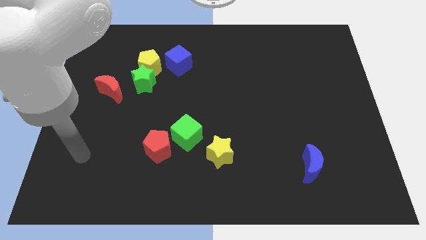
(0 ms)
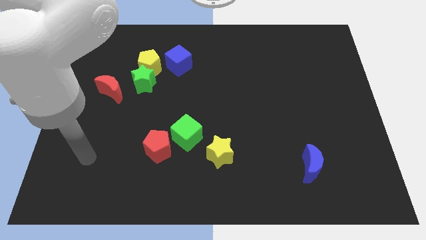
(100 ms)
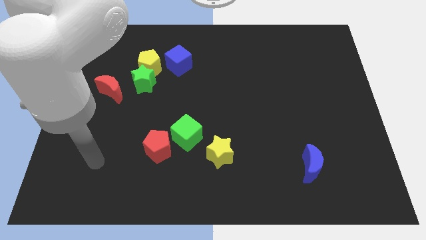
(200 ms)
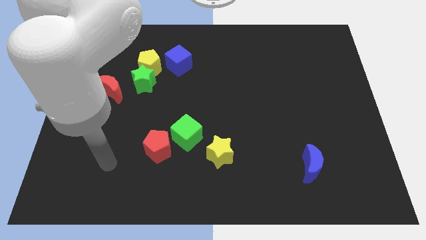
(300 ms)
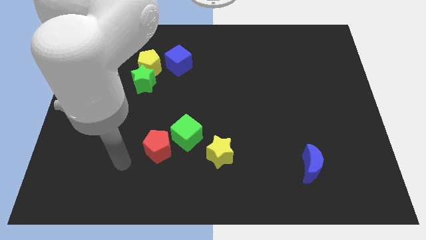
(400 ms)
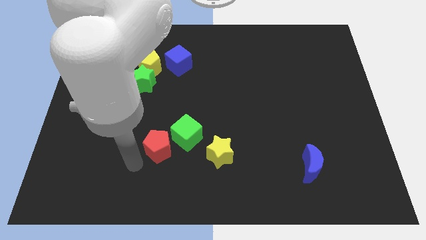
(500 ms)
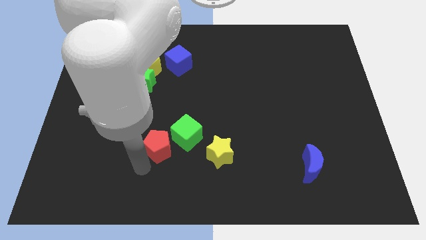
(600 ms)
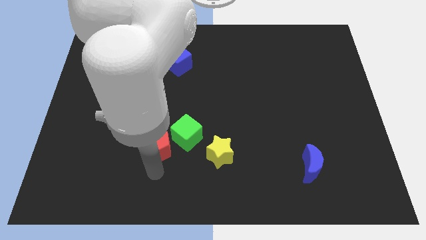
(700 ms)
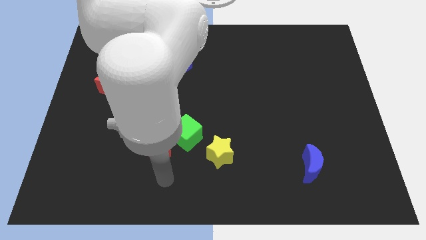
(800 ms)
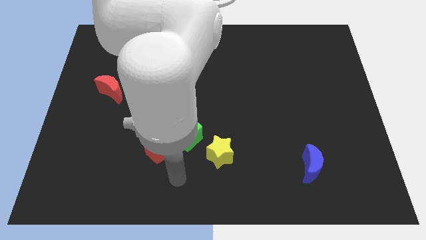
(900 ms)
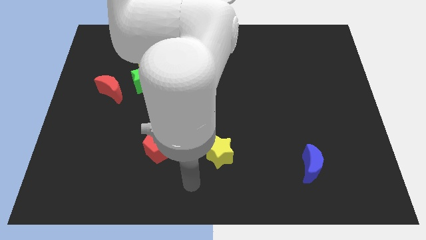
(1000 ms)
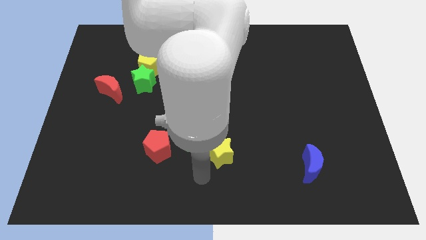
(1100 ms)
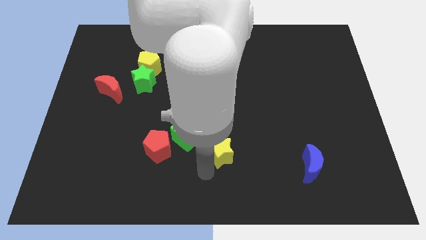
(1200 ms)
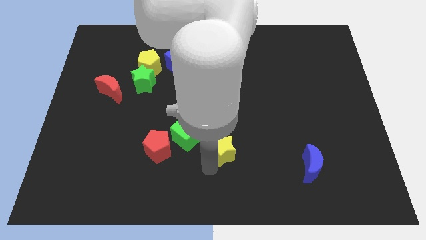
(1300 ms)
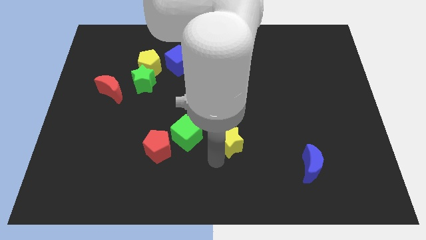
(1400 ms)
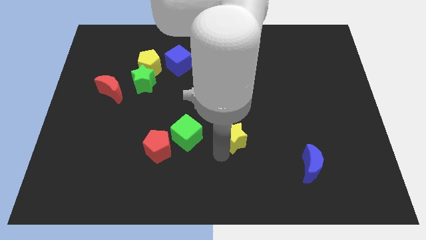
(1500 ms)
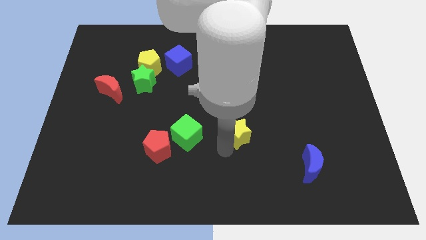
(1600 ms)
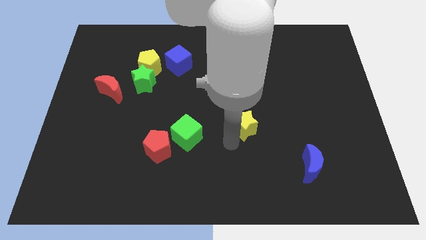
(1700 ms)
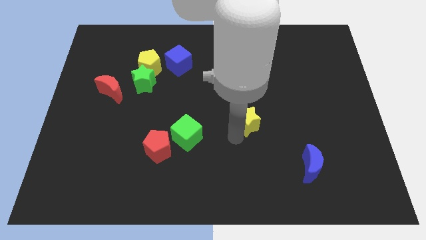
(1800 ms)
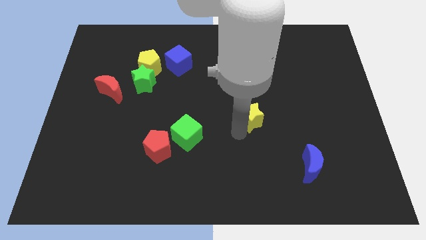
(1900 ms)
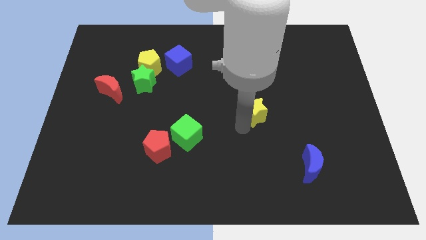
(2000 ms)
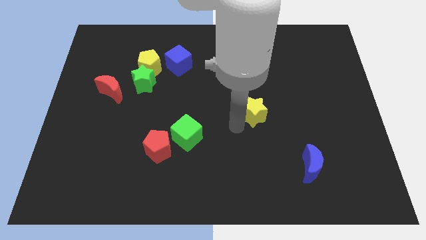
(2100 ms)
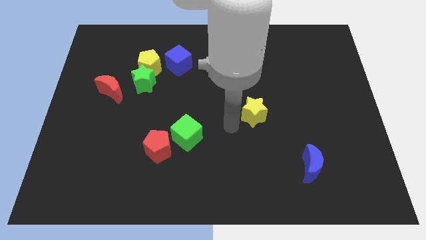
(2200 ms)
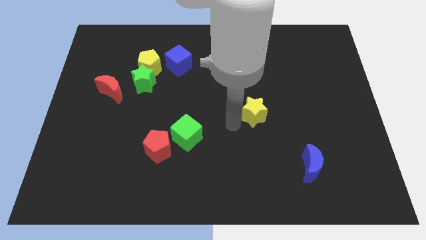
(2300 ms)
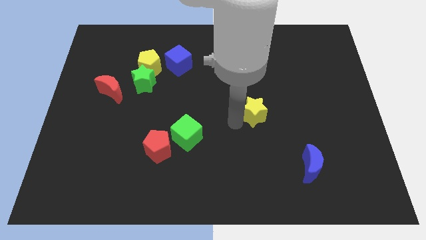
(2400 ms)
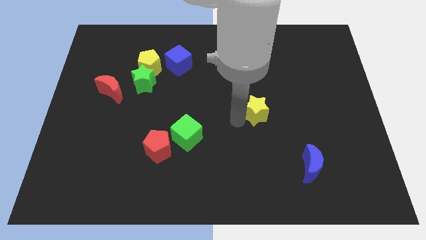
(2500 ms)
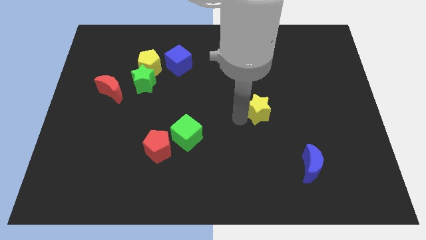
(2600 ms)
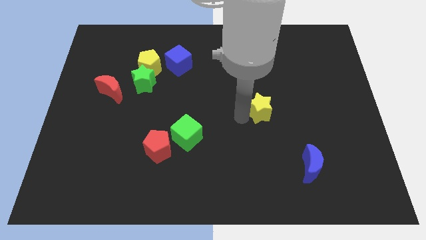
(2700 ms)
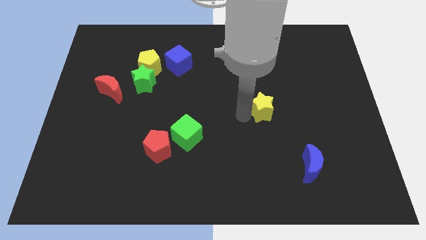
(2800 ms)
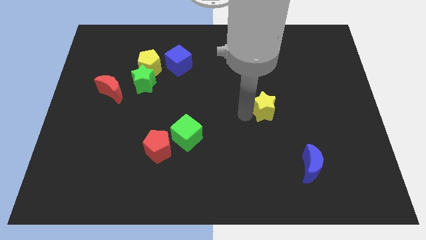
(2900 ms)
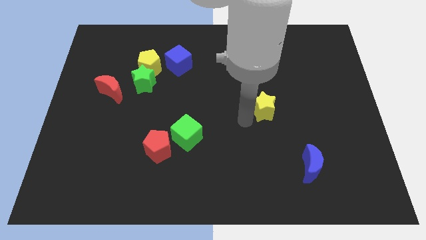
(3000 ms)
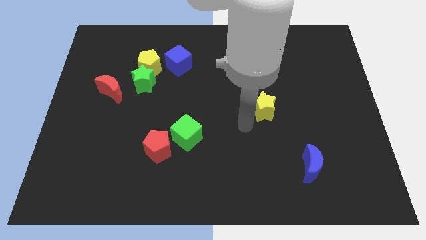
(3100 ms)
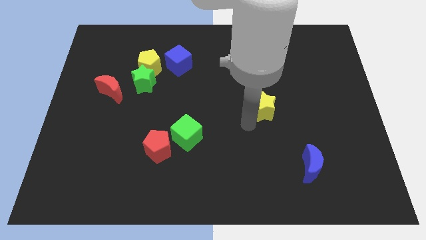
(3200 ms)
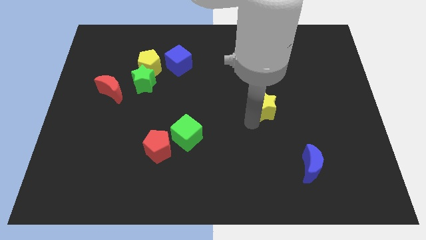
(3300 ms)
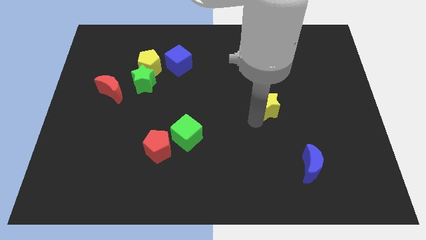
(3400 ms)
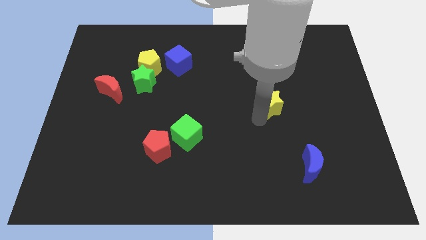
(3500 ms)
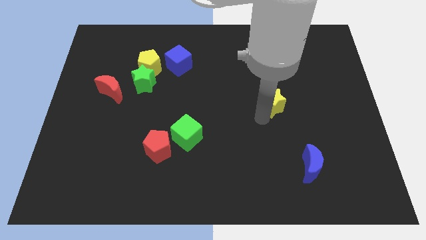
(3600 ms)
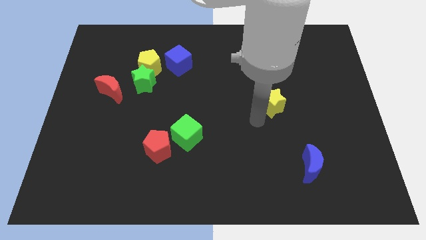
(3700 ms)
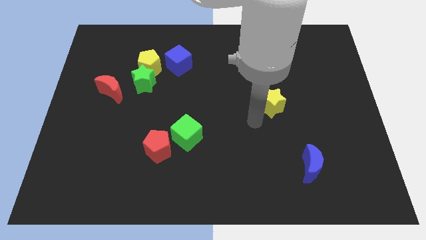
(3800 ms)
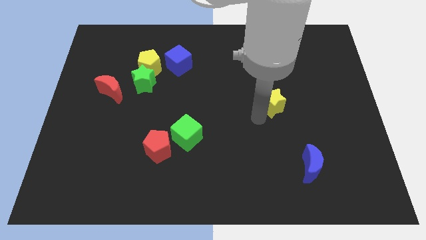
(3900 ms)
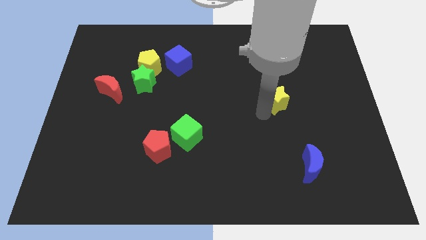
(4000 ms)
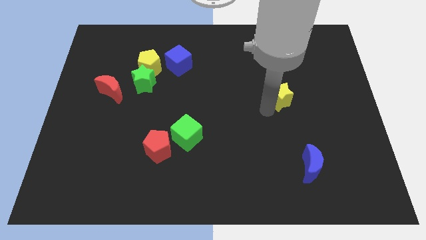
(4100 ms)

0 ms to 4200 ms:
move the yellow star up and right

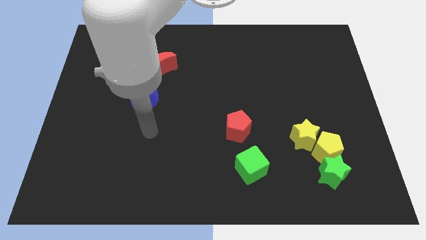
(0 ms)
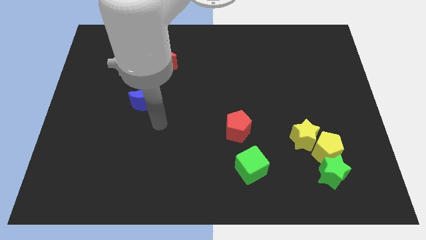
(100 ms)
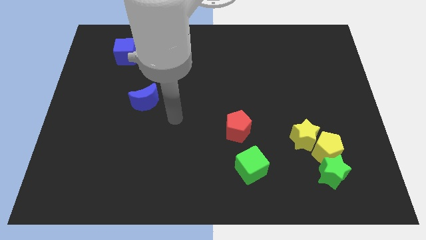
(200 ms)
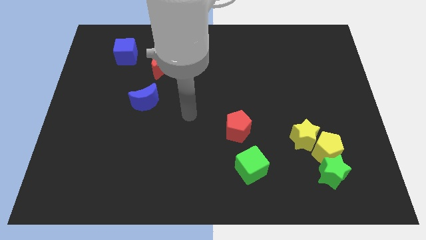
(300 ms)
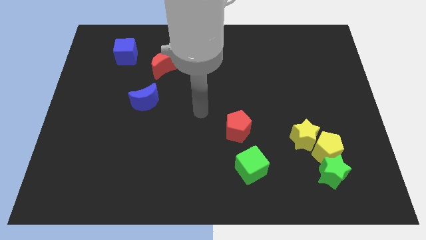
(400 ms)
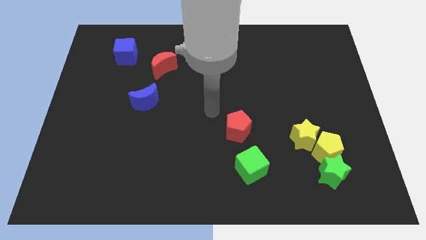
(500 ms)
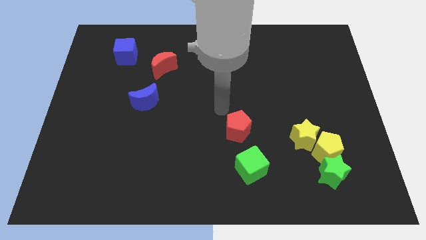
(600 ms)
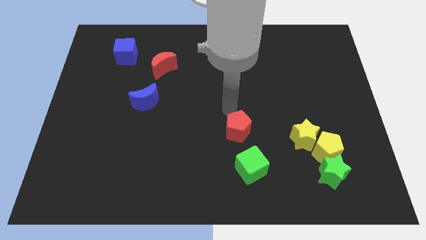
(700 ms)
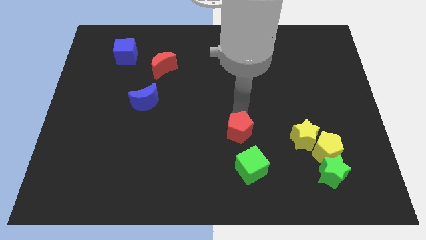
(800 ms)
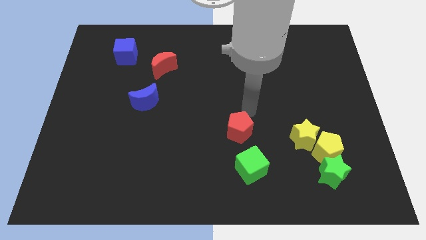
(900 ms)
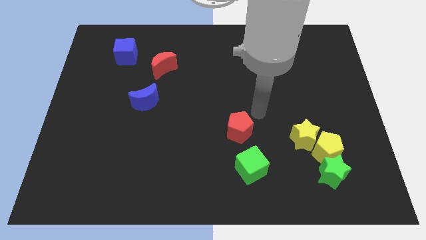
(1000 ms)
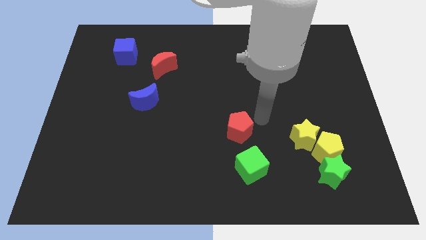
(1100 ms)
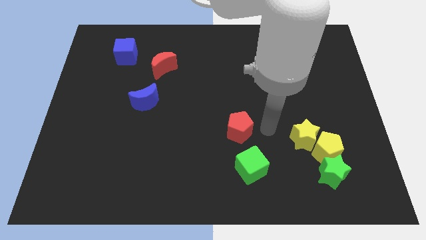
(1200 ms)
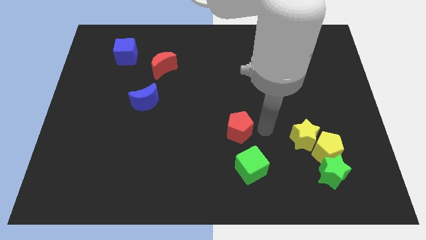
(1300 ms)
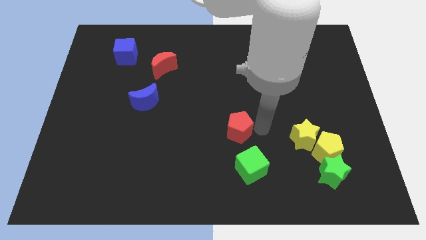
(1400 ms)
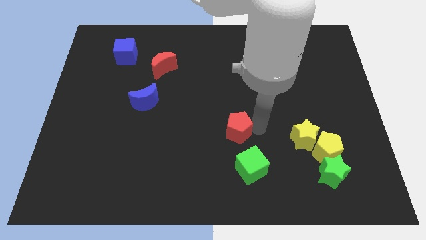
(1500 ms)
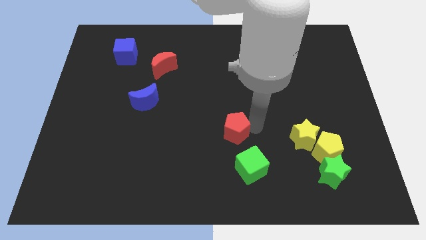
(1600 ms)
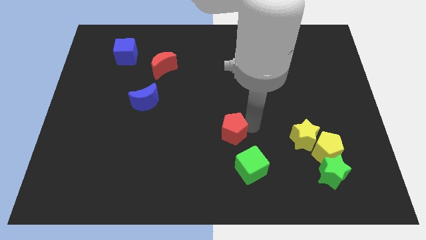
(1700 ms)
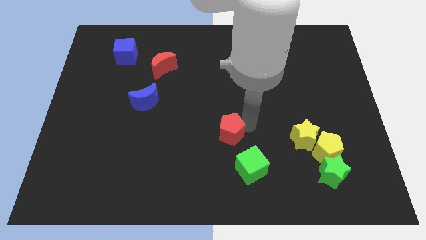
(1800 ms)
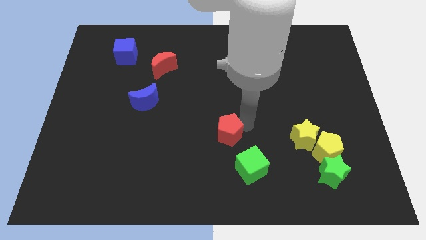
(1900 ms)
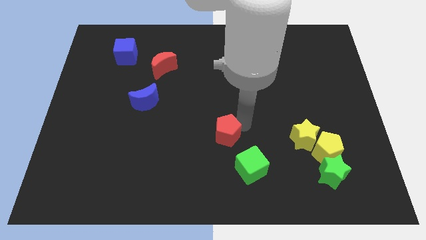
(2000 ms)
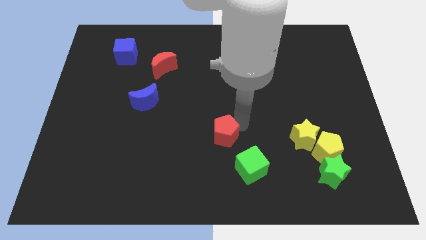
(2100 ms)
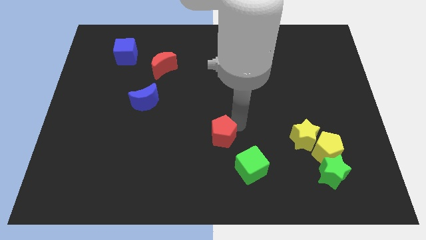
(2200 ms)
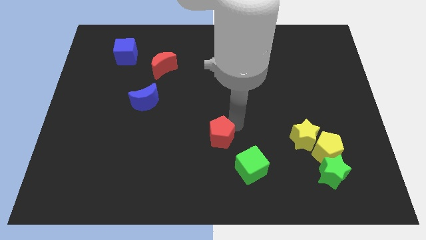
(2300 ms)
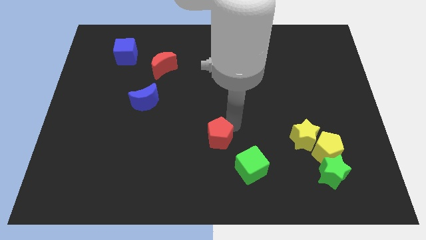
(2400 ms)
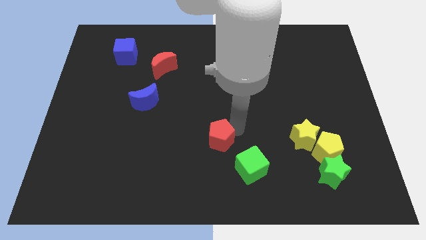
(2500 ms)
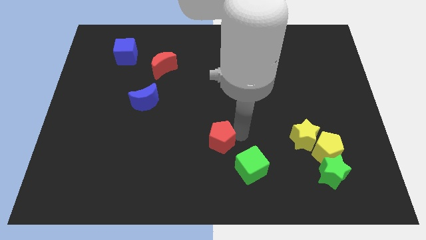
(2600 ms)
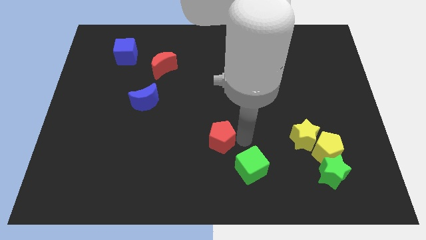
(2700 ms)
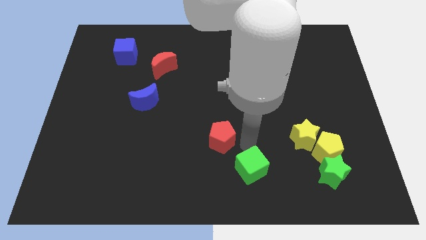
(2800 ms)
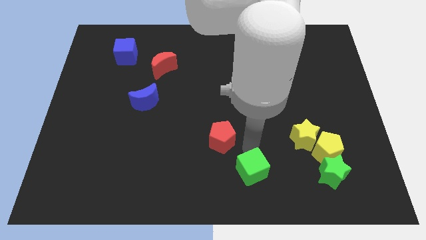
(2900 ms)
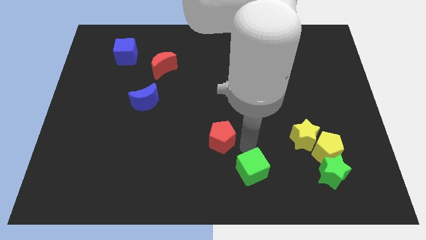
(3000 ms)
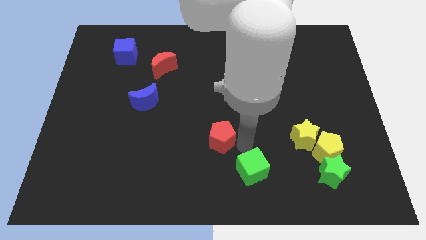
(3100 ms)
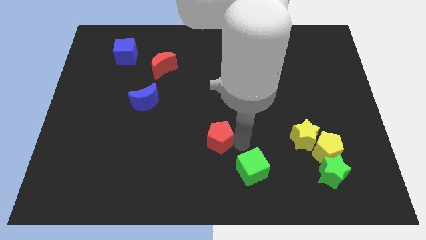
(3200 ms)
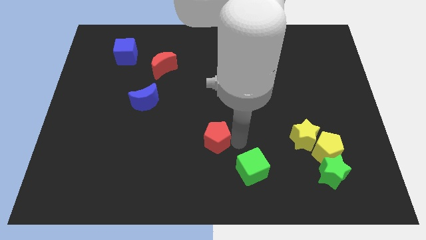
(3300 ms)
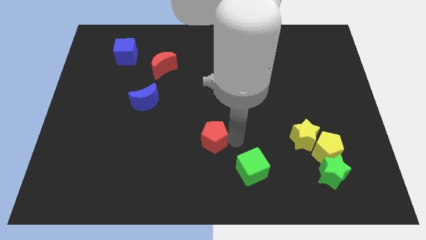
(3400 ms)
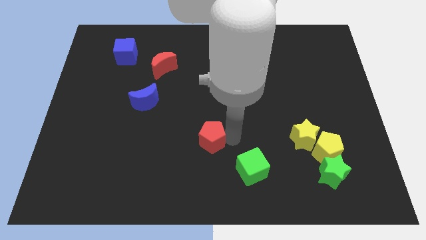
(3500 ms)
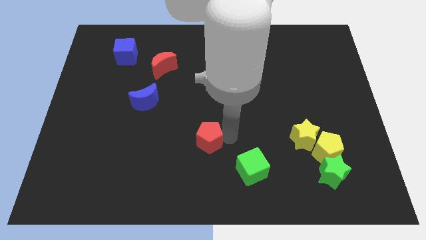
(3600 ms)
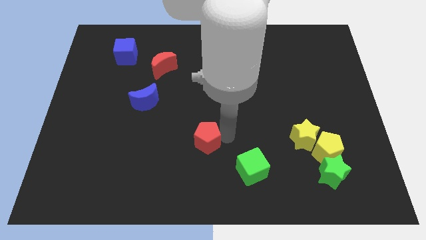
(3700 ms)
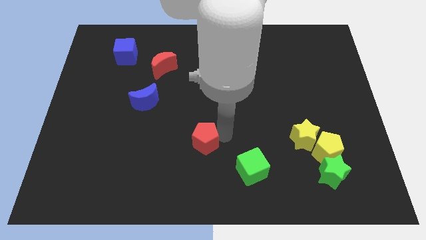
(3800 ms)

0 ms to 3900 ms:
move the red pentagon a little left
